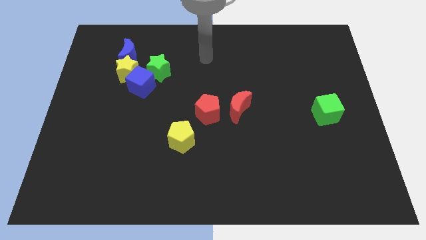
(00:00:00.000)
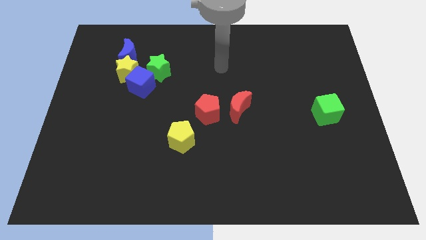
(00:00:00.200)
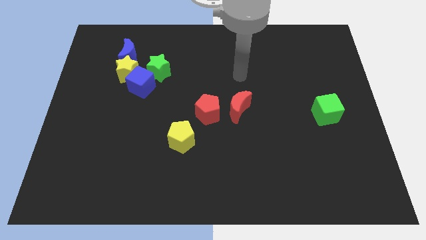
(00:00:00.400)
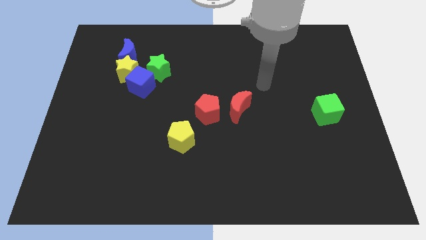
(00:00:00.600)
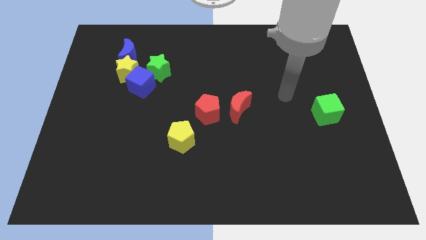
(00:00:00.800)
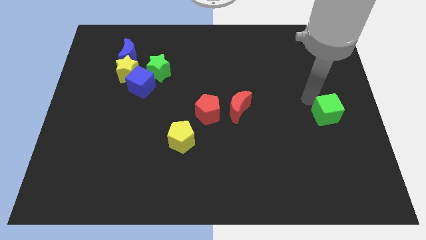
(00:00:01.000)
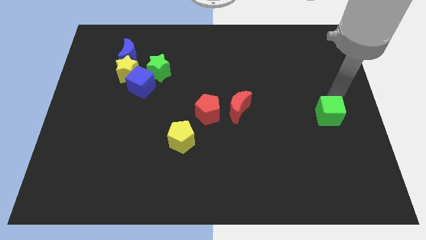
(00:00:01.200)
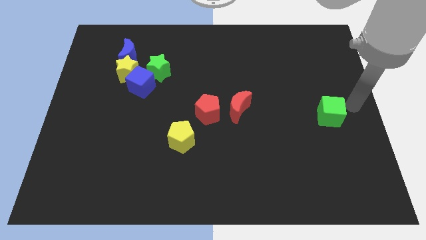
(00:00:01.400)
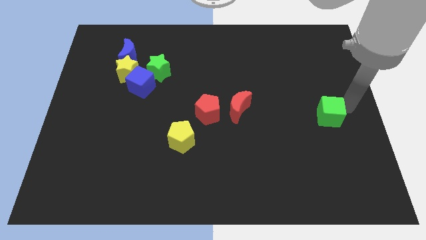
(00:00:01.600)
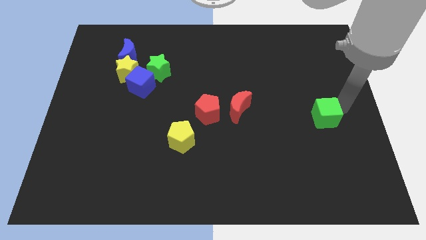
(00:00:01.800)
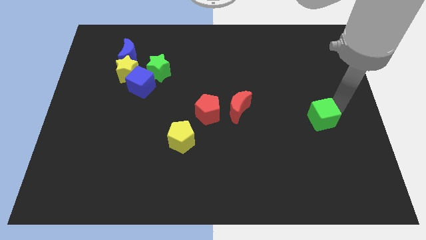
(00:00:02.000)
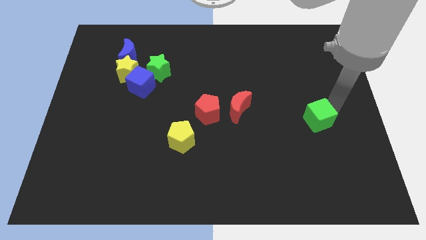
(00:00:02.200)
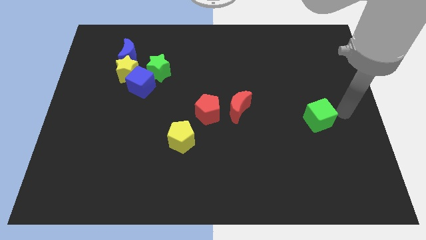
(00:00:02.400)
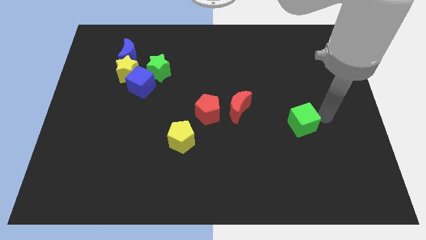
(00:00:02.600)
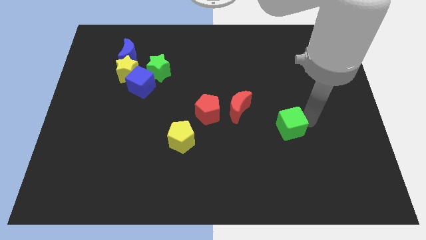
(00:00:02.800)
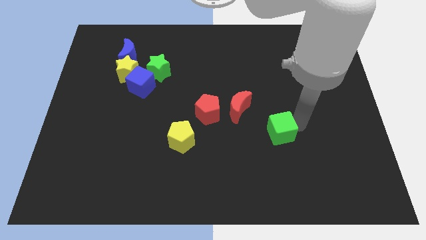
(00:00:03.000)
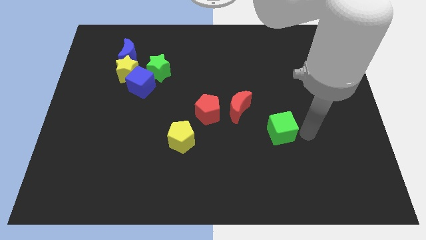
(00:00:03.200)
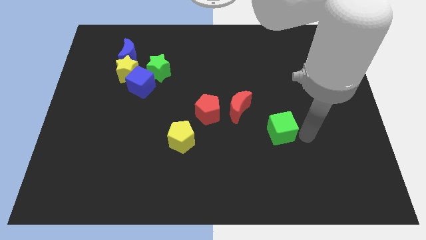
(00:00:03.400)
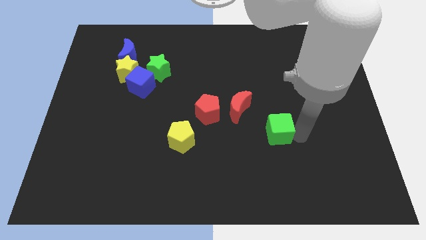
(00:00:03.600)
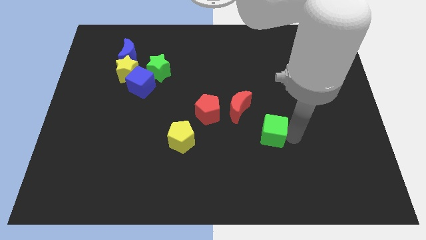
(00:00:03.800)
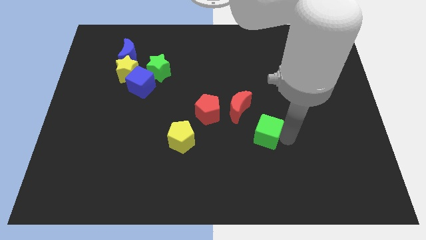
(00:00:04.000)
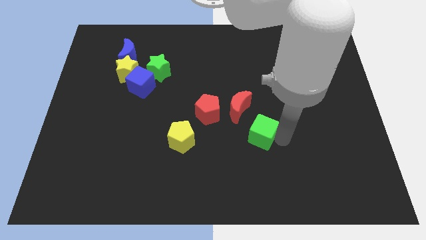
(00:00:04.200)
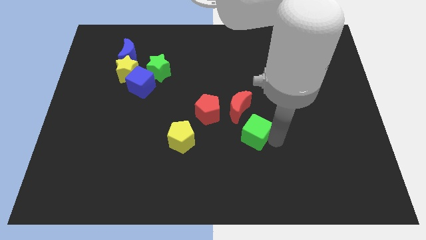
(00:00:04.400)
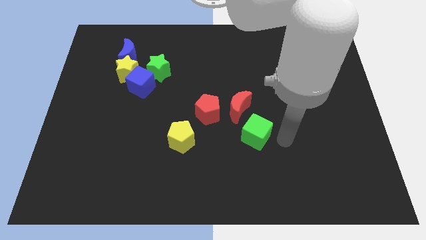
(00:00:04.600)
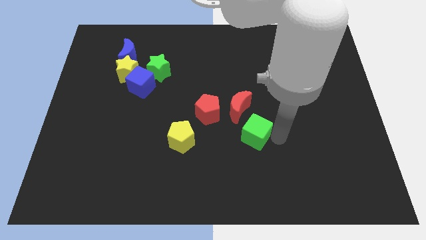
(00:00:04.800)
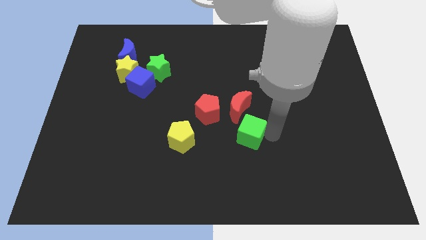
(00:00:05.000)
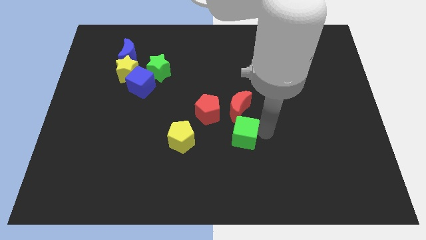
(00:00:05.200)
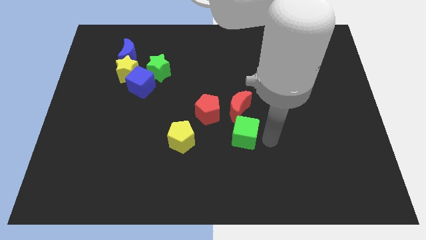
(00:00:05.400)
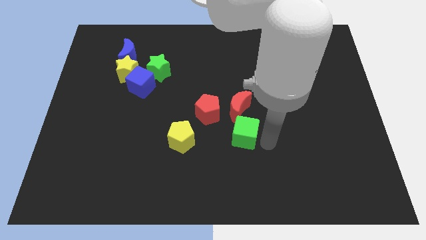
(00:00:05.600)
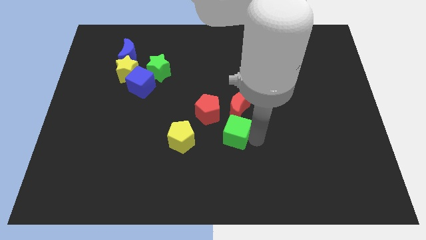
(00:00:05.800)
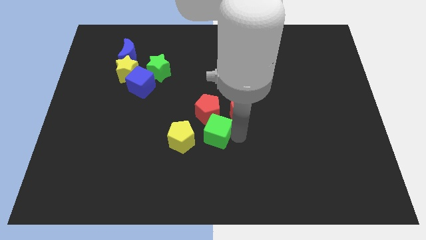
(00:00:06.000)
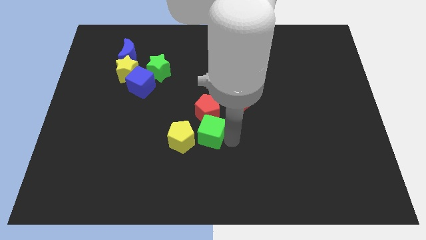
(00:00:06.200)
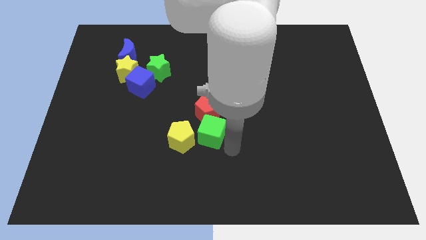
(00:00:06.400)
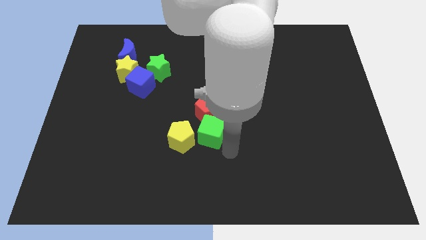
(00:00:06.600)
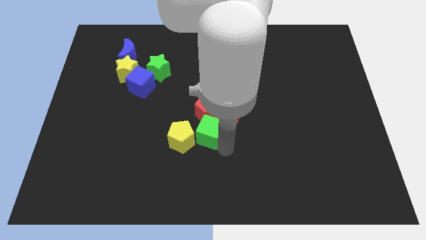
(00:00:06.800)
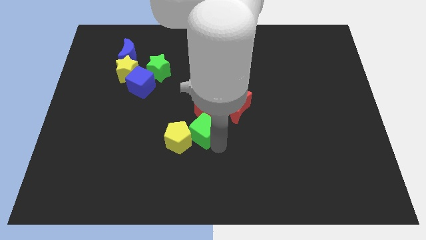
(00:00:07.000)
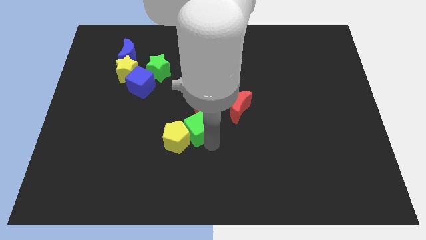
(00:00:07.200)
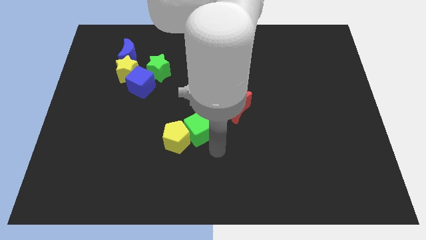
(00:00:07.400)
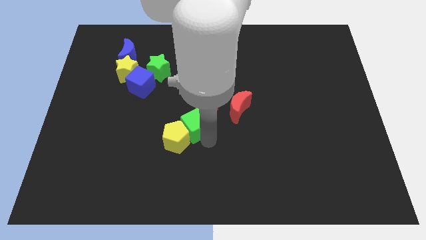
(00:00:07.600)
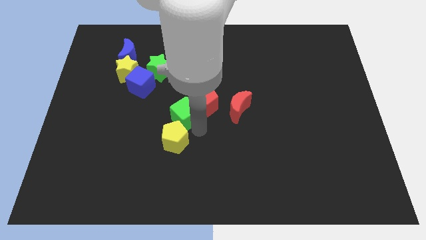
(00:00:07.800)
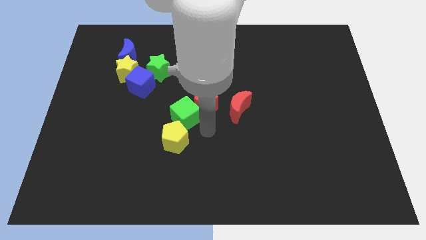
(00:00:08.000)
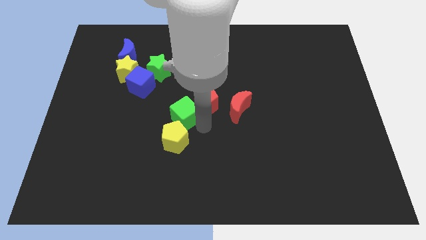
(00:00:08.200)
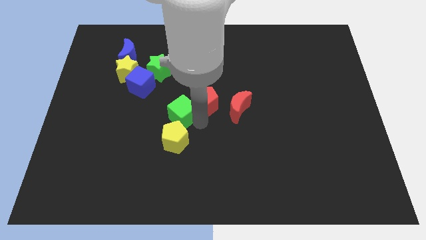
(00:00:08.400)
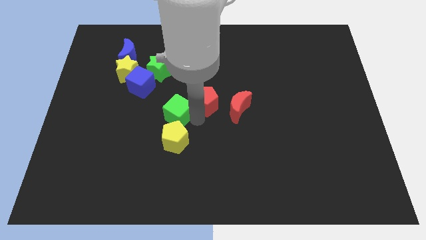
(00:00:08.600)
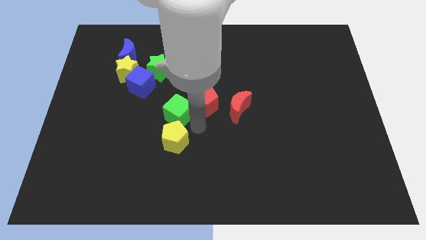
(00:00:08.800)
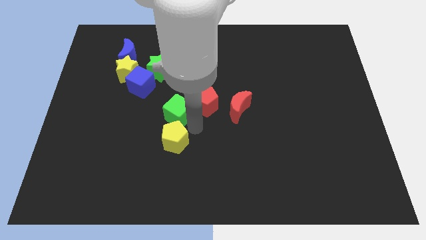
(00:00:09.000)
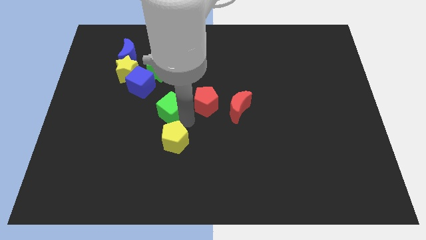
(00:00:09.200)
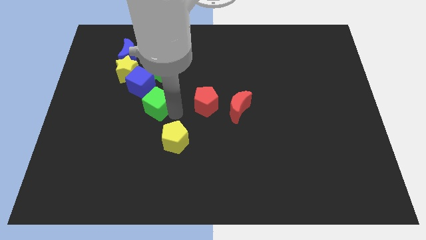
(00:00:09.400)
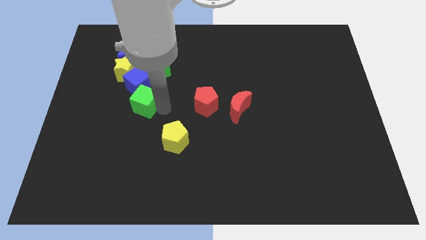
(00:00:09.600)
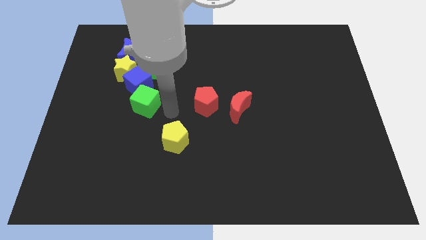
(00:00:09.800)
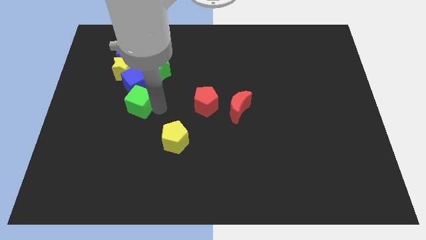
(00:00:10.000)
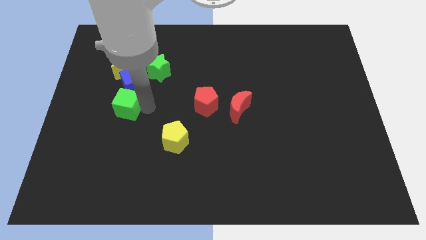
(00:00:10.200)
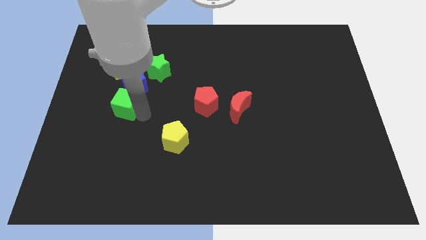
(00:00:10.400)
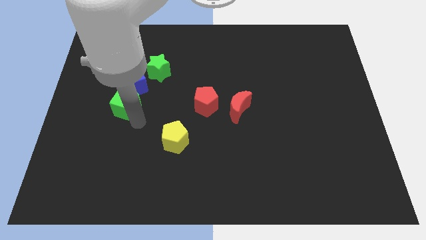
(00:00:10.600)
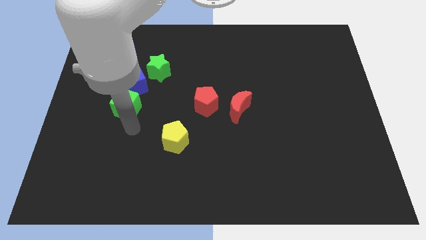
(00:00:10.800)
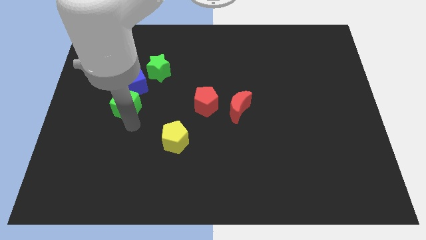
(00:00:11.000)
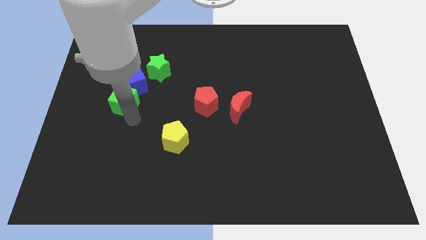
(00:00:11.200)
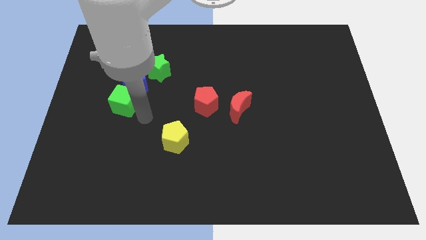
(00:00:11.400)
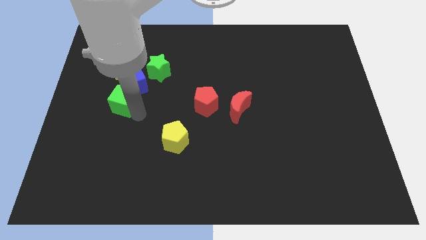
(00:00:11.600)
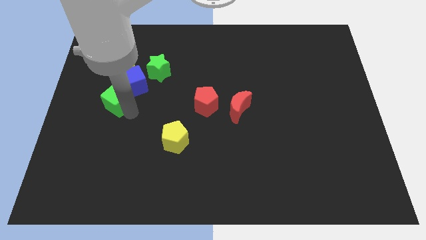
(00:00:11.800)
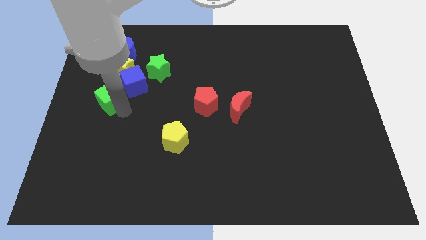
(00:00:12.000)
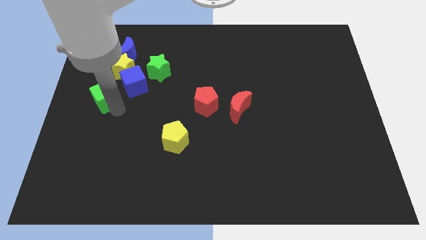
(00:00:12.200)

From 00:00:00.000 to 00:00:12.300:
push the green cube to the bottom left side of the yellow star

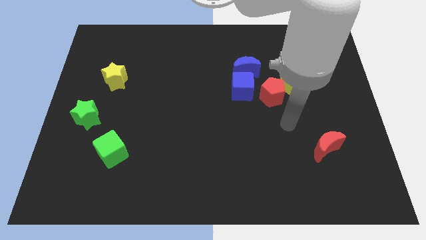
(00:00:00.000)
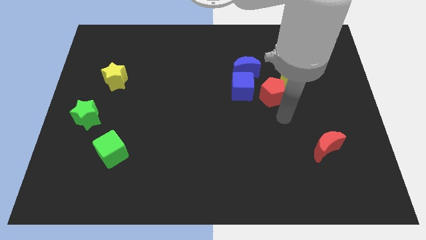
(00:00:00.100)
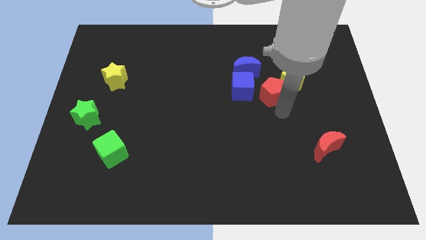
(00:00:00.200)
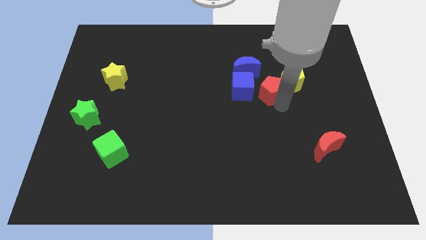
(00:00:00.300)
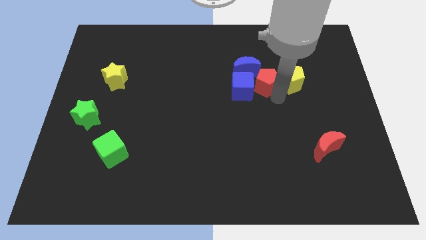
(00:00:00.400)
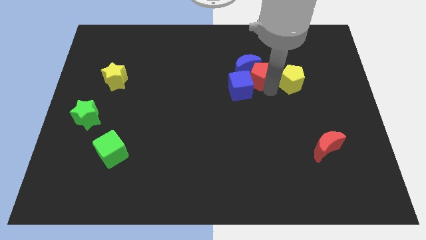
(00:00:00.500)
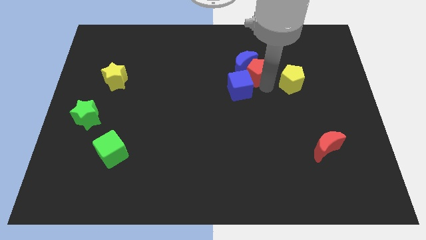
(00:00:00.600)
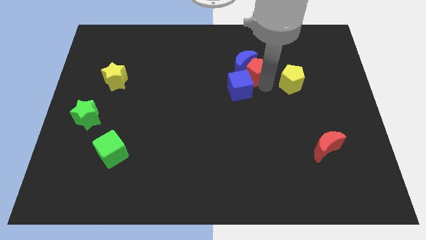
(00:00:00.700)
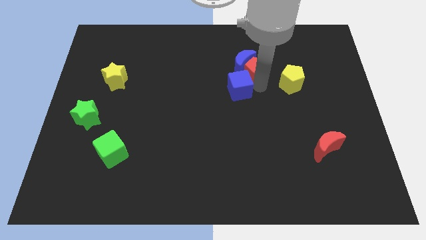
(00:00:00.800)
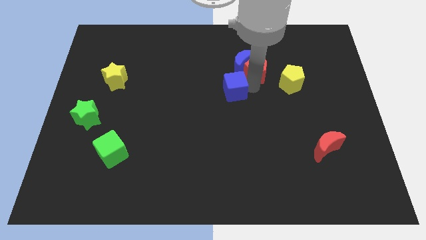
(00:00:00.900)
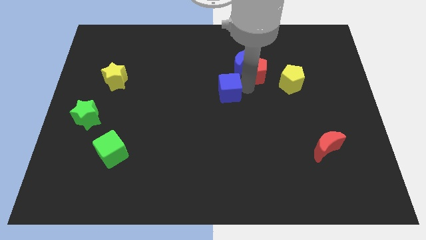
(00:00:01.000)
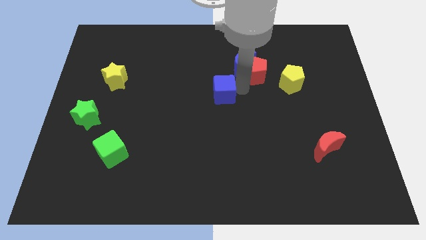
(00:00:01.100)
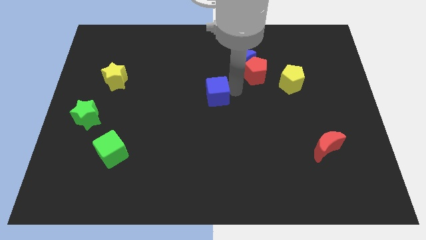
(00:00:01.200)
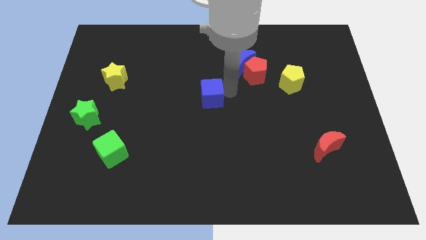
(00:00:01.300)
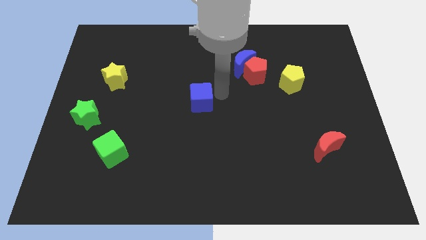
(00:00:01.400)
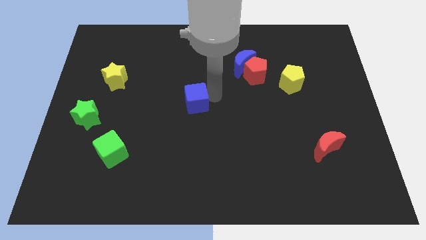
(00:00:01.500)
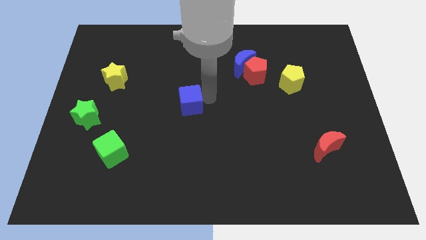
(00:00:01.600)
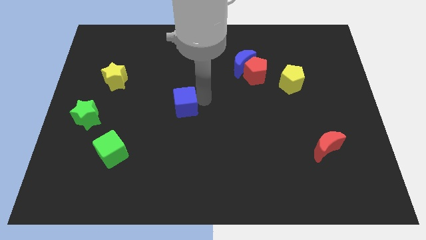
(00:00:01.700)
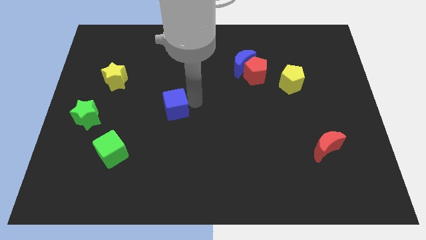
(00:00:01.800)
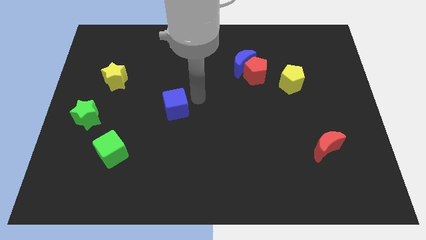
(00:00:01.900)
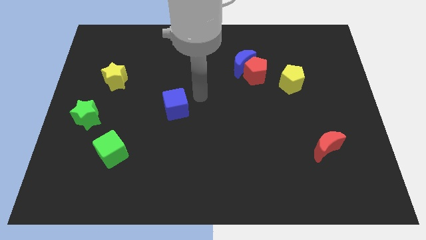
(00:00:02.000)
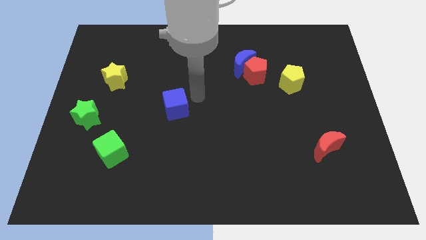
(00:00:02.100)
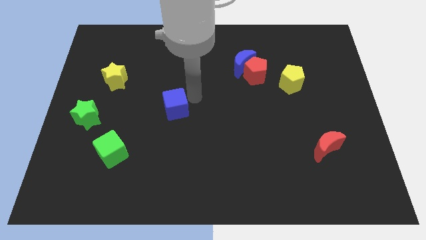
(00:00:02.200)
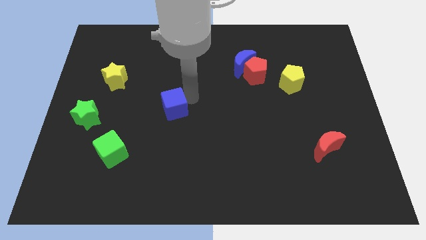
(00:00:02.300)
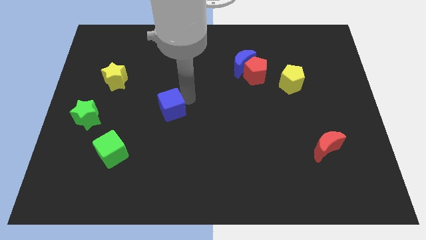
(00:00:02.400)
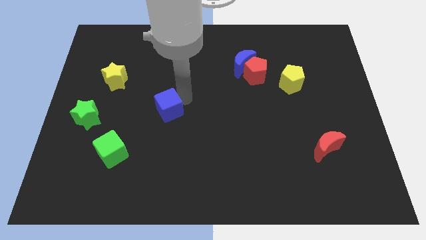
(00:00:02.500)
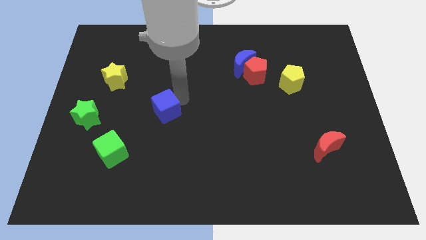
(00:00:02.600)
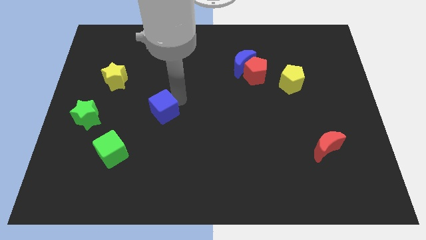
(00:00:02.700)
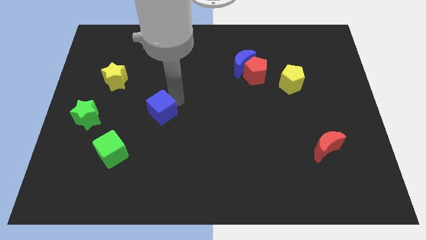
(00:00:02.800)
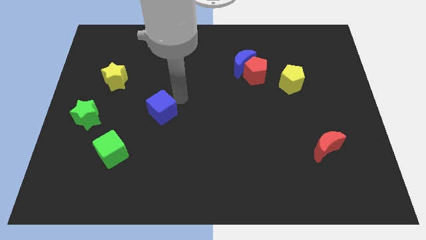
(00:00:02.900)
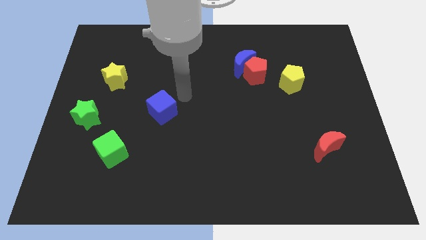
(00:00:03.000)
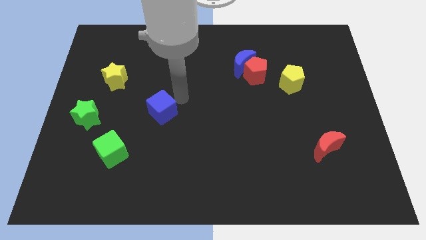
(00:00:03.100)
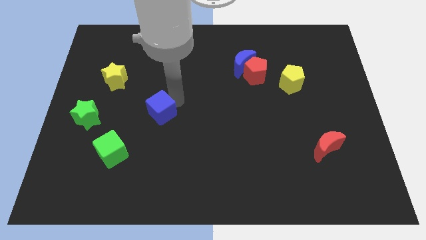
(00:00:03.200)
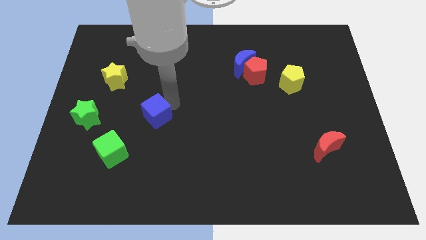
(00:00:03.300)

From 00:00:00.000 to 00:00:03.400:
move the blue cube to the right side of the green star
